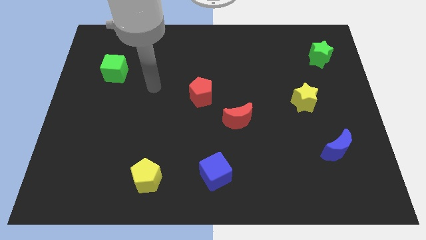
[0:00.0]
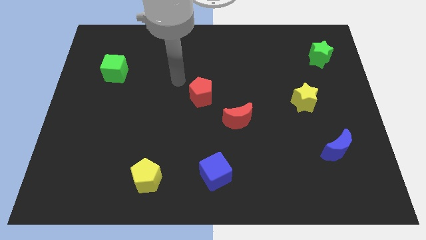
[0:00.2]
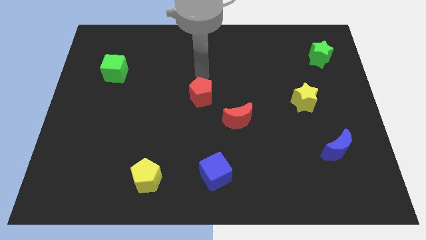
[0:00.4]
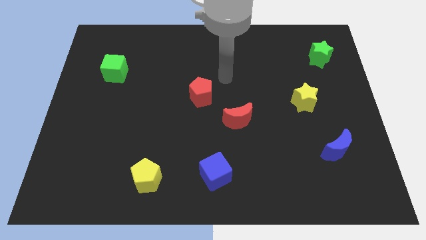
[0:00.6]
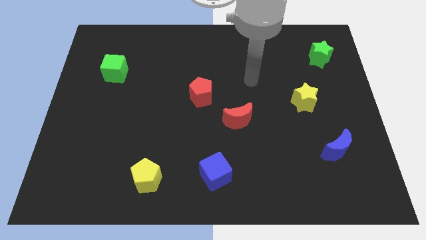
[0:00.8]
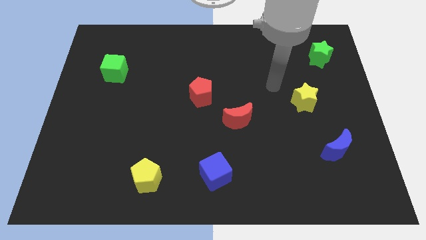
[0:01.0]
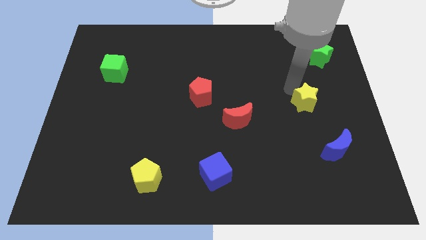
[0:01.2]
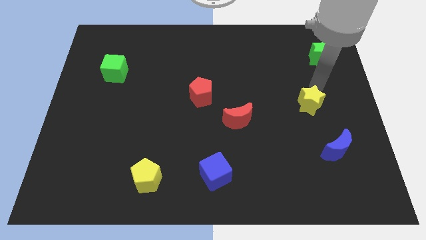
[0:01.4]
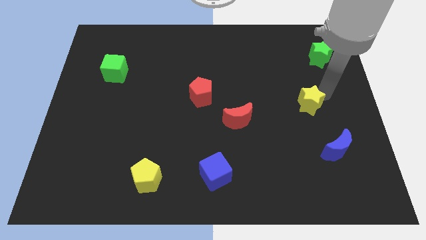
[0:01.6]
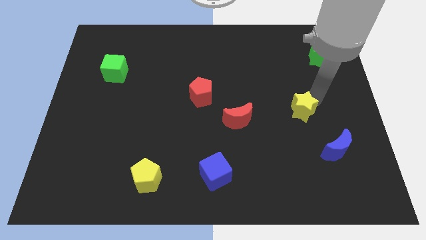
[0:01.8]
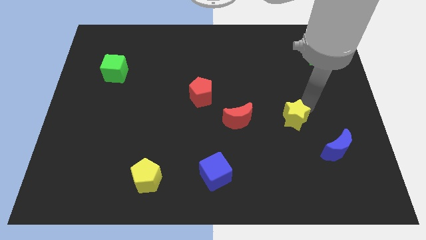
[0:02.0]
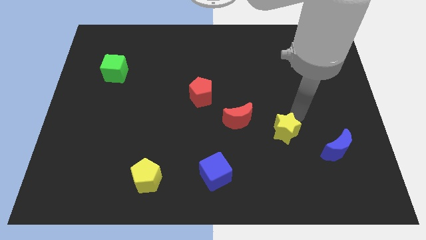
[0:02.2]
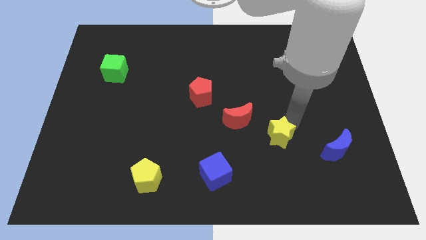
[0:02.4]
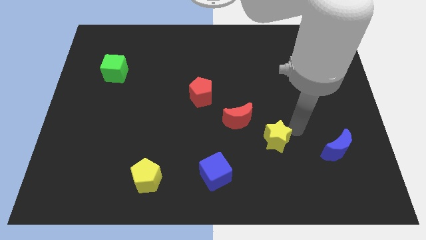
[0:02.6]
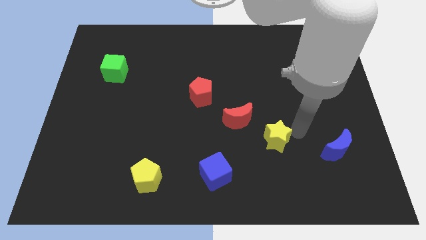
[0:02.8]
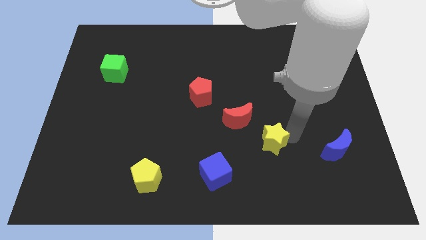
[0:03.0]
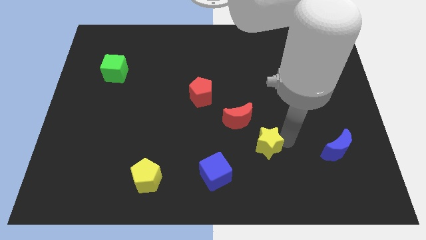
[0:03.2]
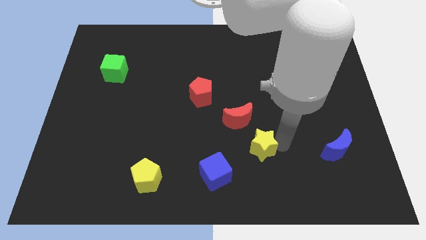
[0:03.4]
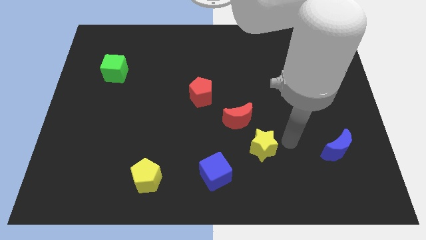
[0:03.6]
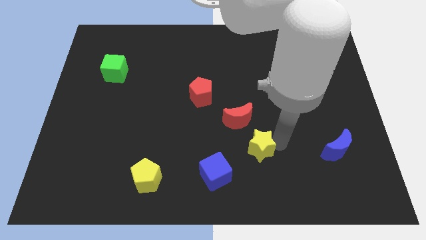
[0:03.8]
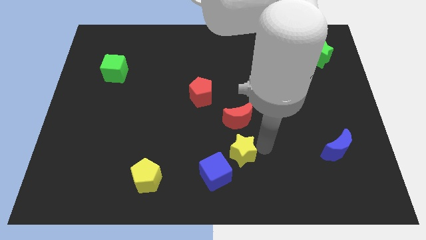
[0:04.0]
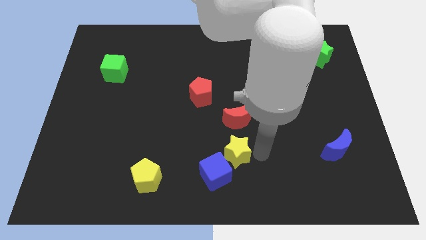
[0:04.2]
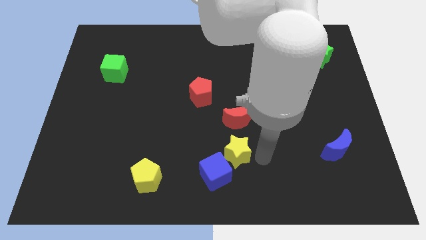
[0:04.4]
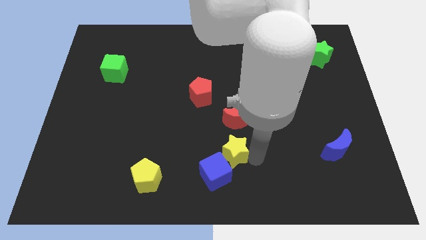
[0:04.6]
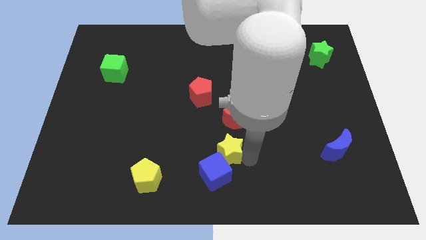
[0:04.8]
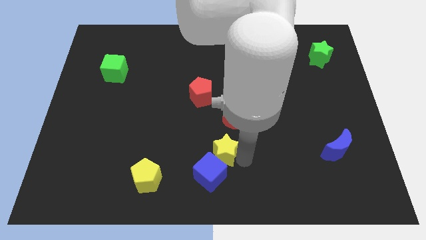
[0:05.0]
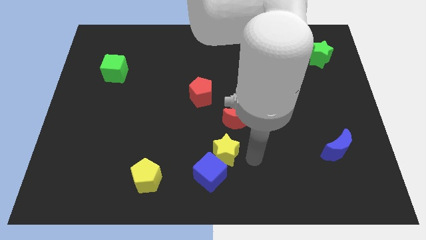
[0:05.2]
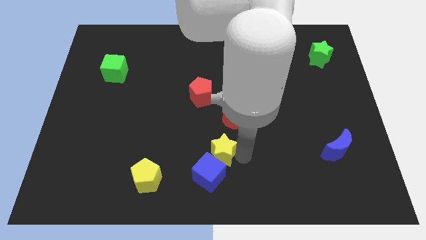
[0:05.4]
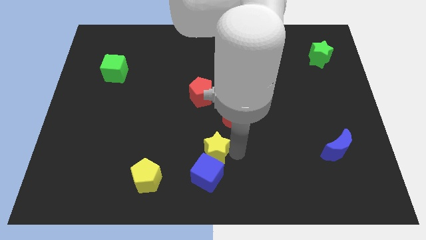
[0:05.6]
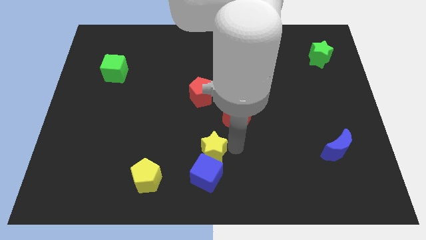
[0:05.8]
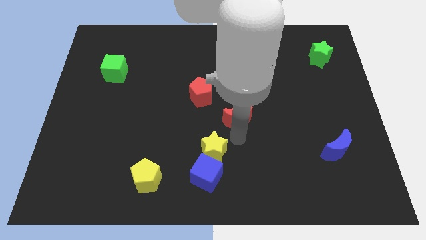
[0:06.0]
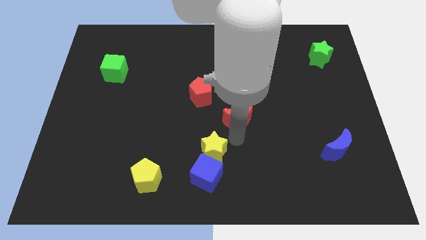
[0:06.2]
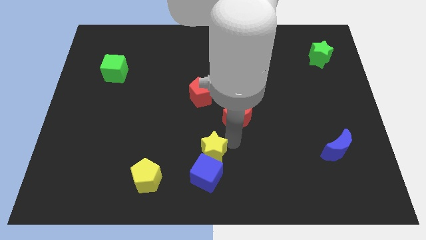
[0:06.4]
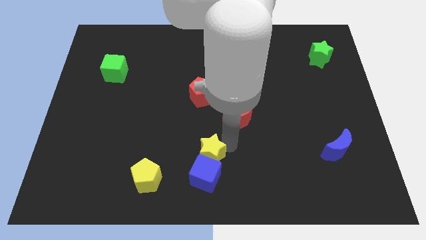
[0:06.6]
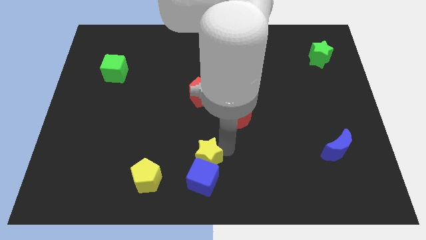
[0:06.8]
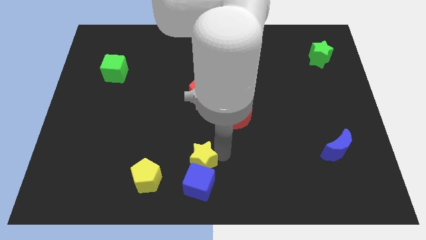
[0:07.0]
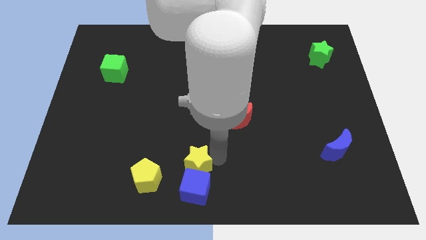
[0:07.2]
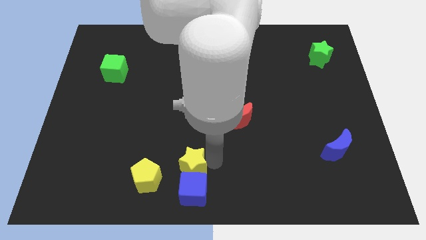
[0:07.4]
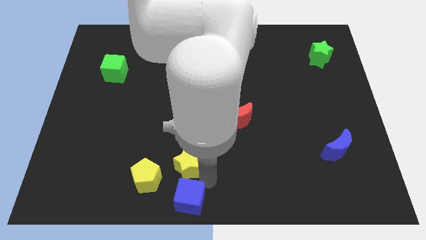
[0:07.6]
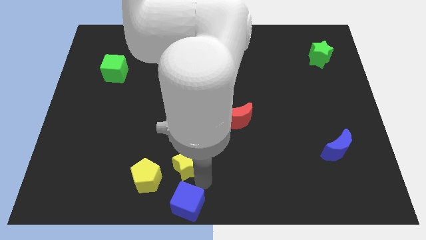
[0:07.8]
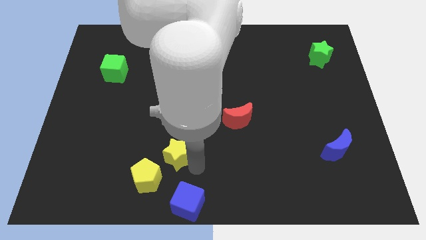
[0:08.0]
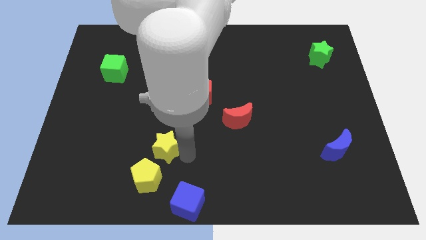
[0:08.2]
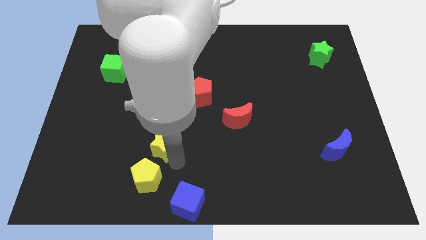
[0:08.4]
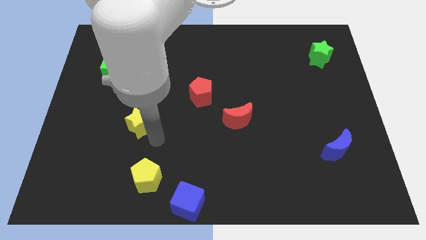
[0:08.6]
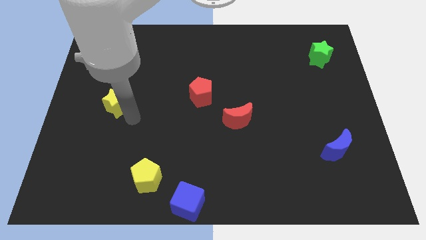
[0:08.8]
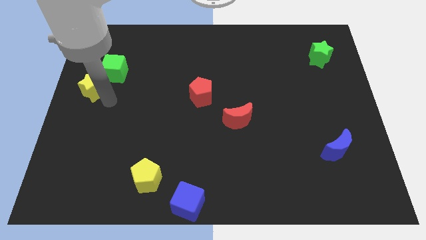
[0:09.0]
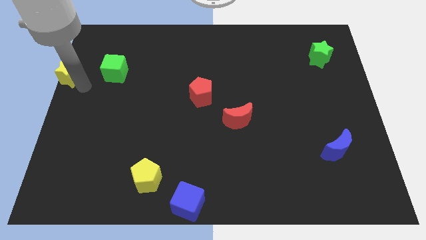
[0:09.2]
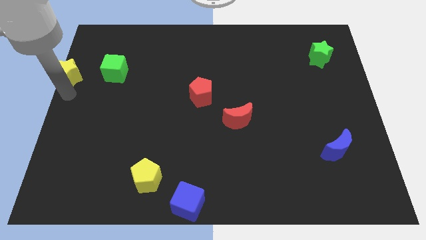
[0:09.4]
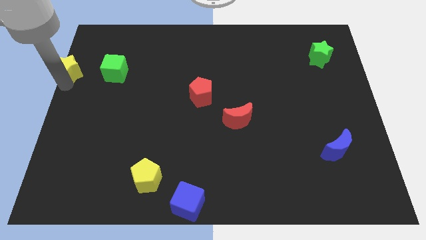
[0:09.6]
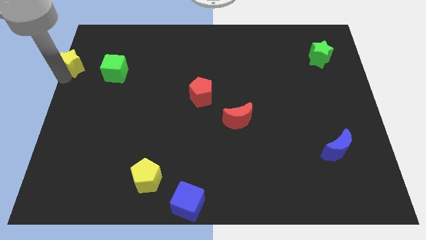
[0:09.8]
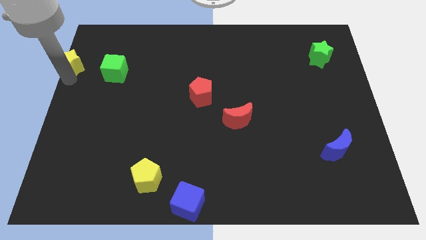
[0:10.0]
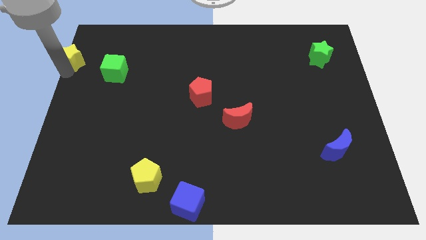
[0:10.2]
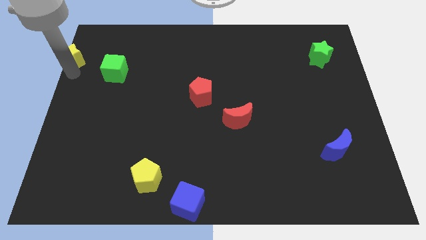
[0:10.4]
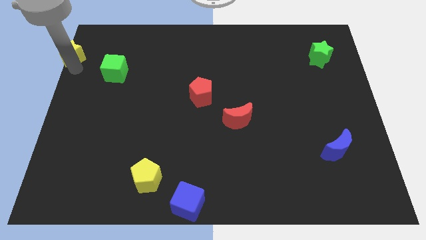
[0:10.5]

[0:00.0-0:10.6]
push the yellow star to the upper left corner
